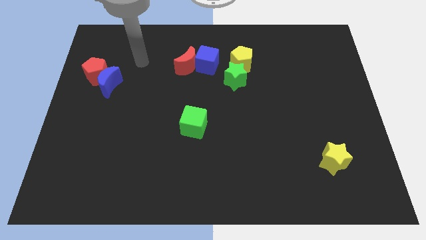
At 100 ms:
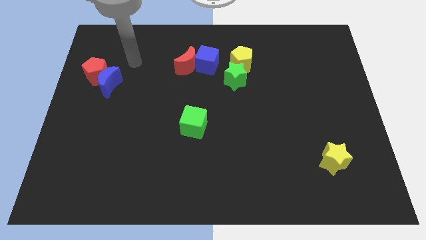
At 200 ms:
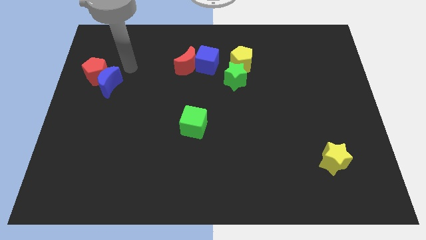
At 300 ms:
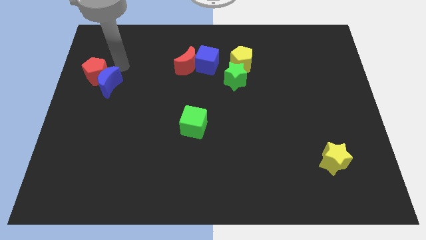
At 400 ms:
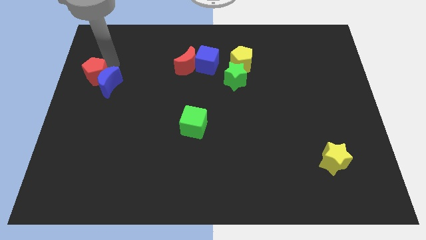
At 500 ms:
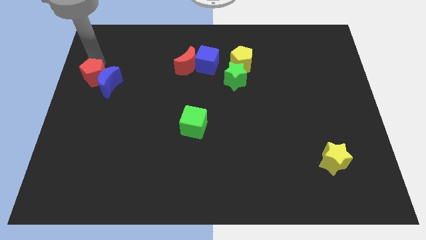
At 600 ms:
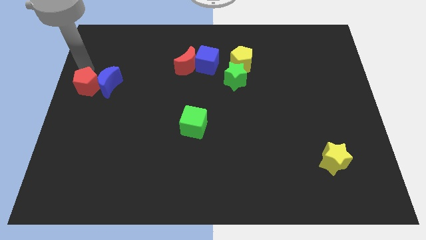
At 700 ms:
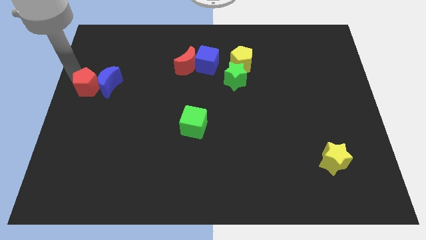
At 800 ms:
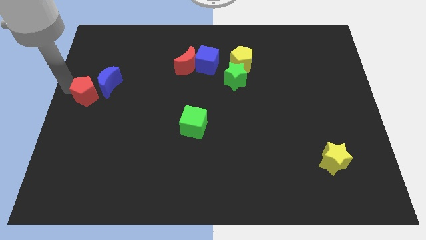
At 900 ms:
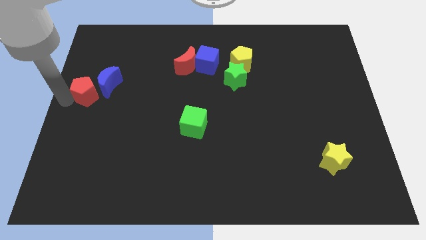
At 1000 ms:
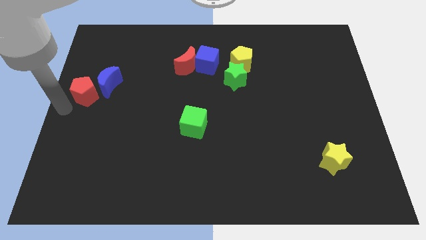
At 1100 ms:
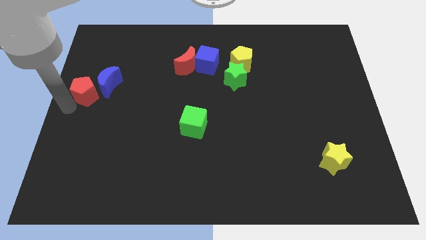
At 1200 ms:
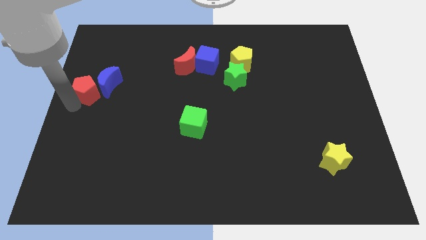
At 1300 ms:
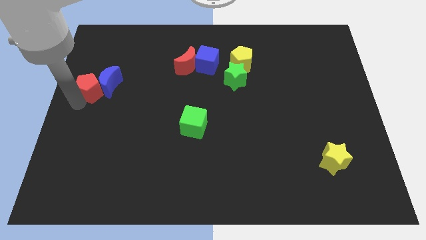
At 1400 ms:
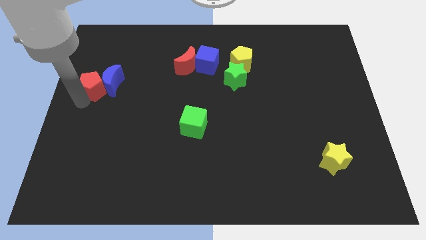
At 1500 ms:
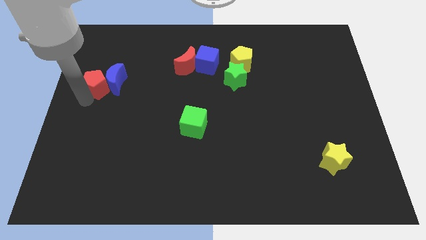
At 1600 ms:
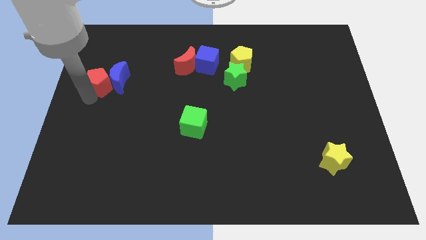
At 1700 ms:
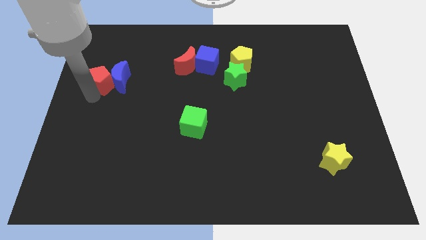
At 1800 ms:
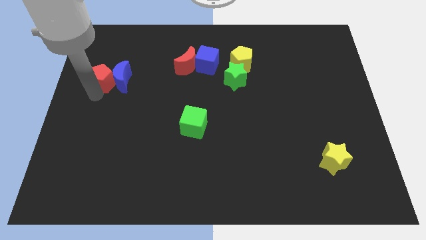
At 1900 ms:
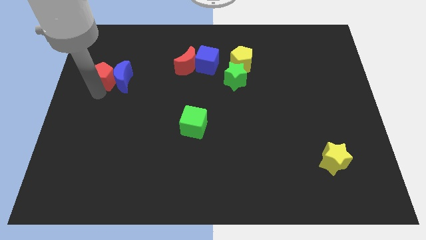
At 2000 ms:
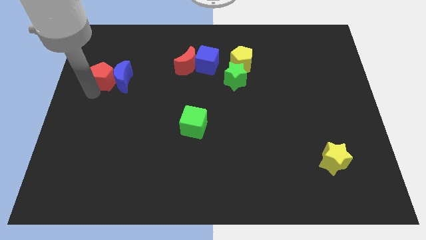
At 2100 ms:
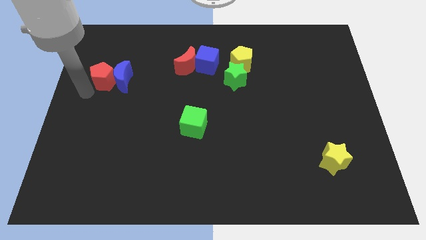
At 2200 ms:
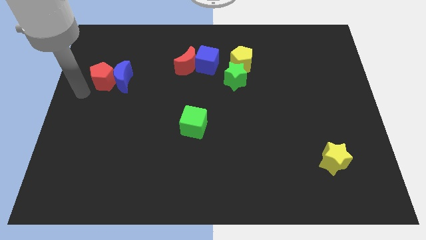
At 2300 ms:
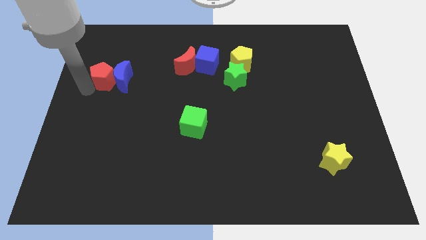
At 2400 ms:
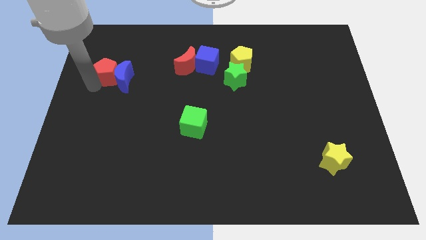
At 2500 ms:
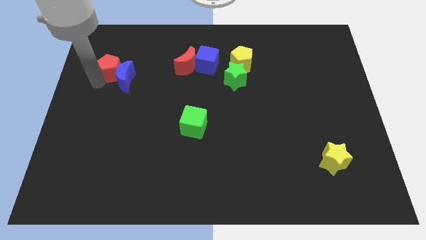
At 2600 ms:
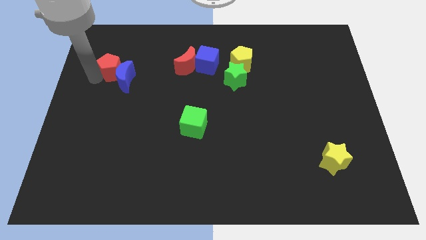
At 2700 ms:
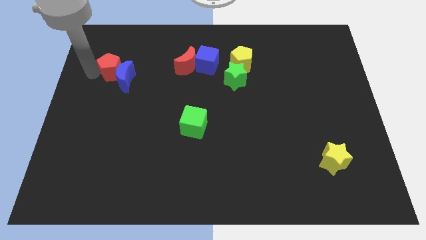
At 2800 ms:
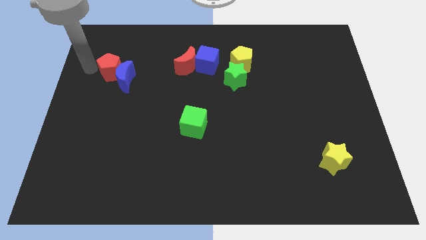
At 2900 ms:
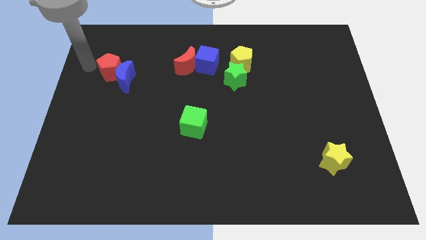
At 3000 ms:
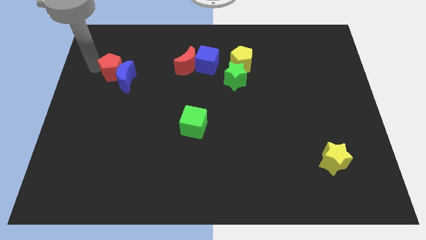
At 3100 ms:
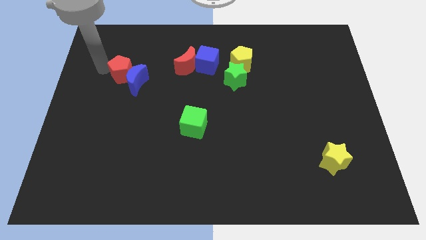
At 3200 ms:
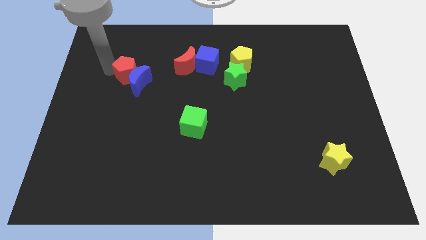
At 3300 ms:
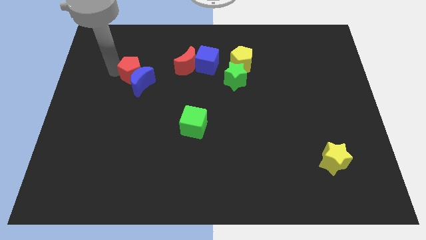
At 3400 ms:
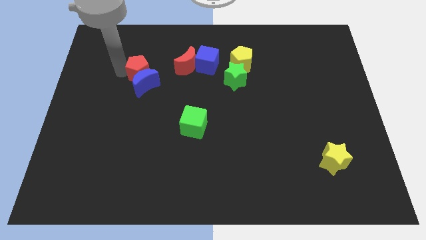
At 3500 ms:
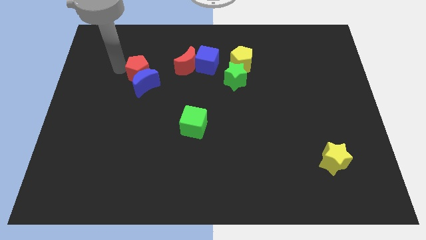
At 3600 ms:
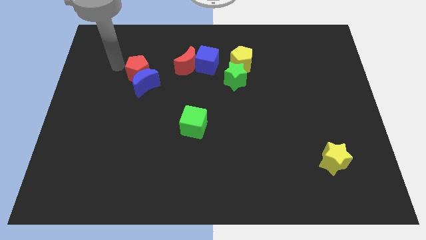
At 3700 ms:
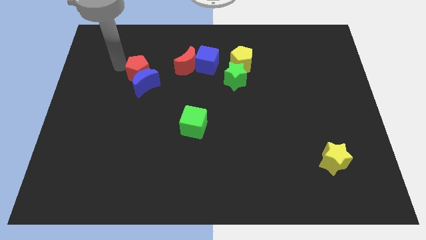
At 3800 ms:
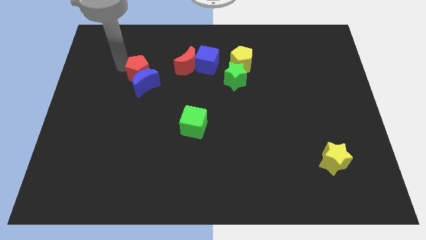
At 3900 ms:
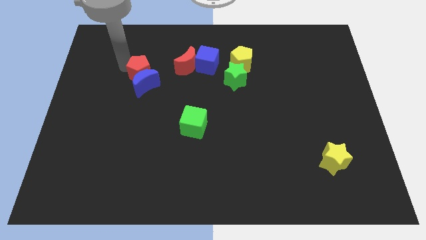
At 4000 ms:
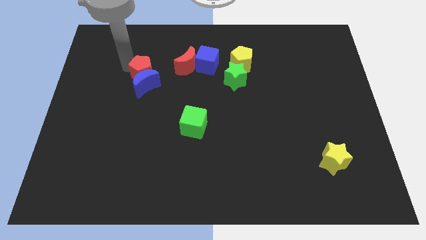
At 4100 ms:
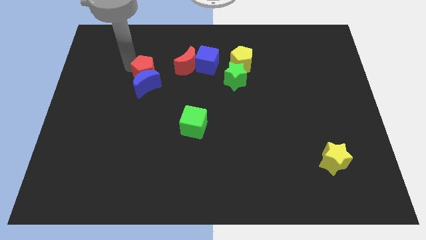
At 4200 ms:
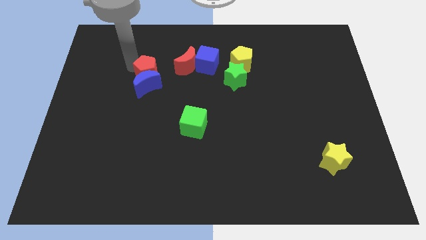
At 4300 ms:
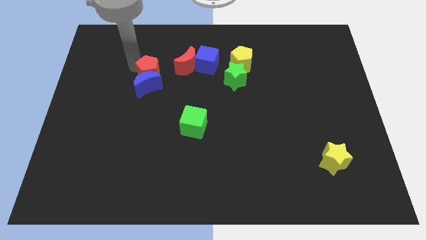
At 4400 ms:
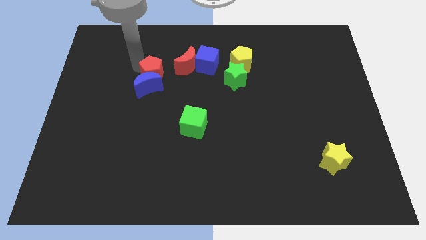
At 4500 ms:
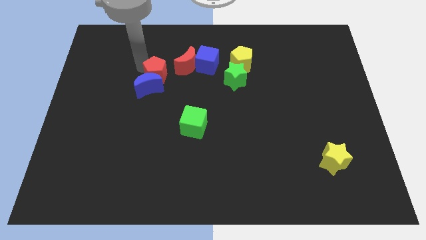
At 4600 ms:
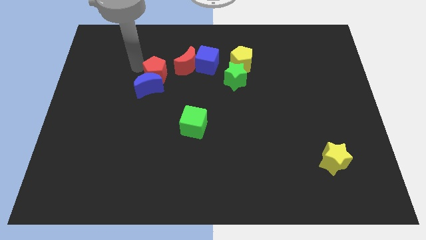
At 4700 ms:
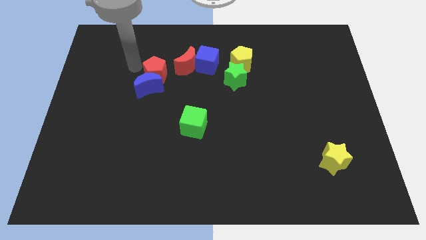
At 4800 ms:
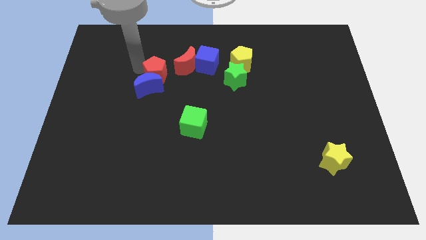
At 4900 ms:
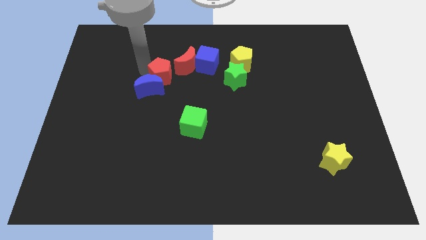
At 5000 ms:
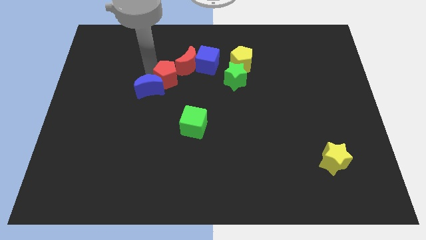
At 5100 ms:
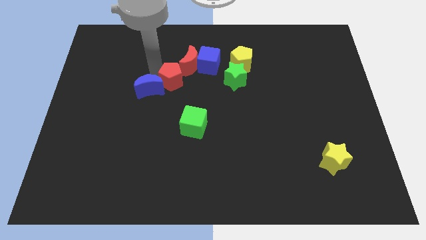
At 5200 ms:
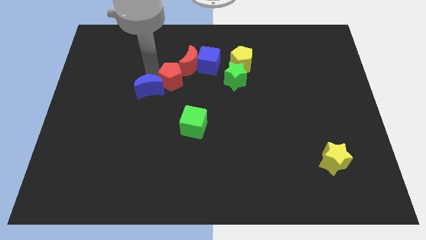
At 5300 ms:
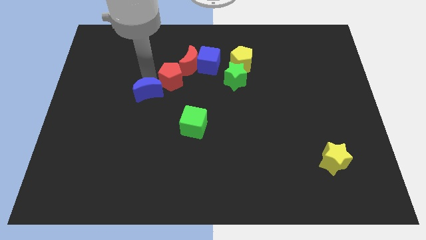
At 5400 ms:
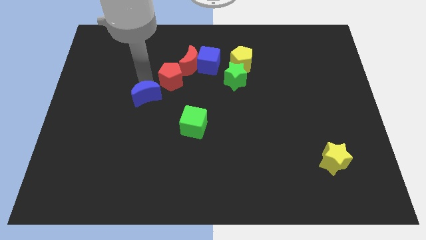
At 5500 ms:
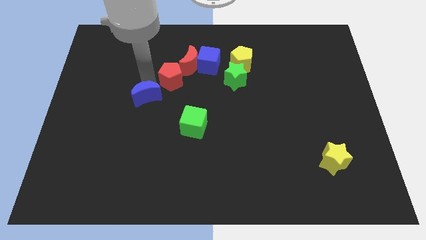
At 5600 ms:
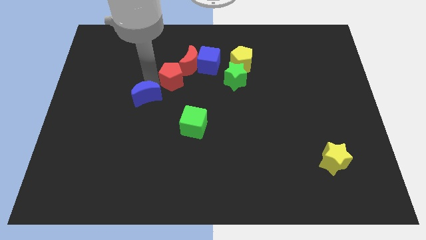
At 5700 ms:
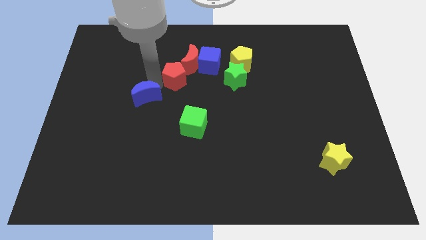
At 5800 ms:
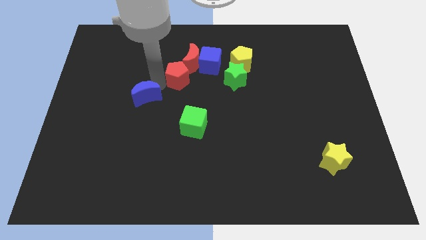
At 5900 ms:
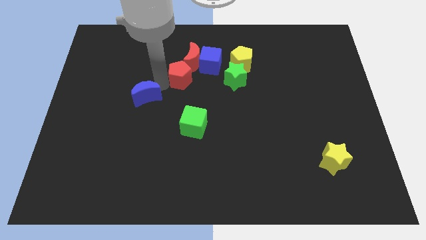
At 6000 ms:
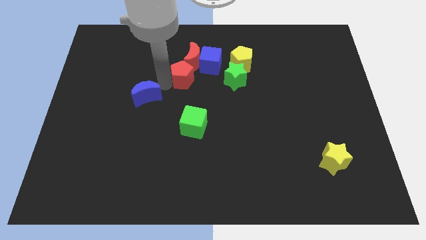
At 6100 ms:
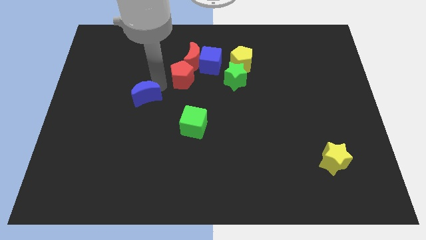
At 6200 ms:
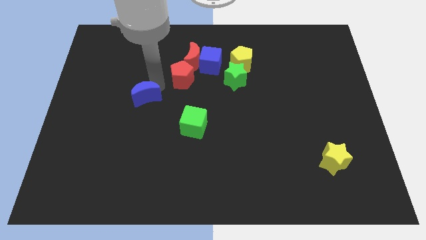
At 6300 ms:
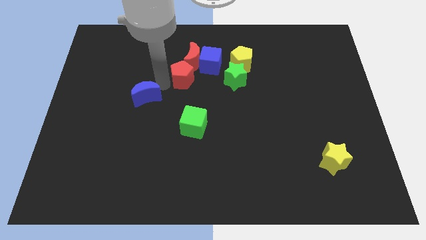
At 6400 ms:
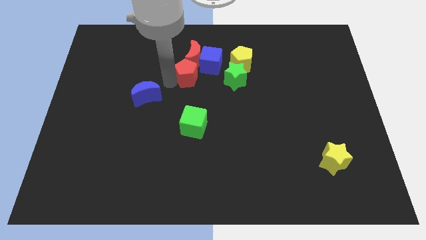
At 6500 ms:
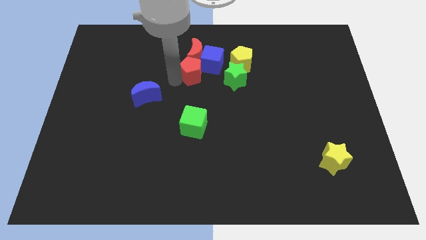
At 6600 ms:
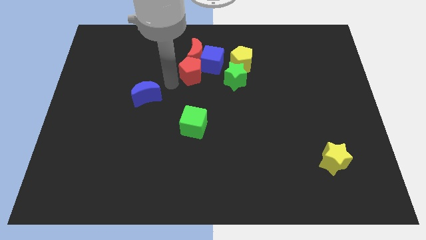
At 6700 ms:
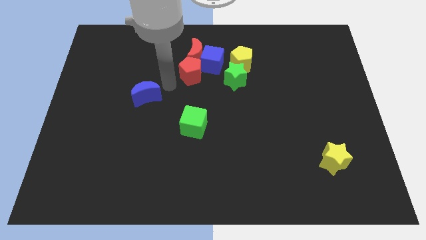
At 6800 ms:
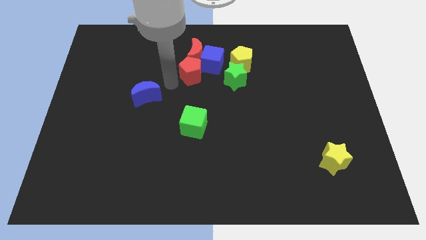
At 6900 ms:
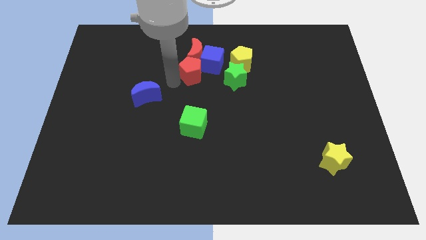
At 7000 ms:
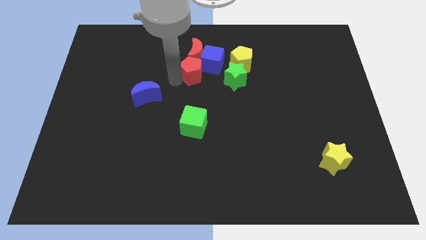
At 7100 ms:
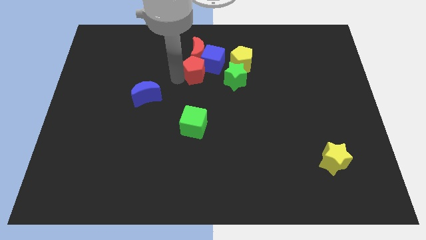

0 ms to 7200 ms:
push the red pentagon close to the blue cube

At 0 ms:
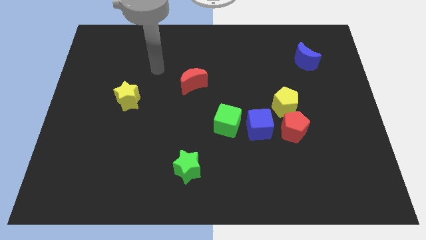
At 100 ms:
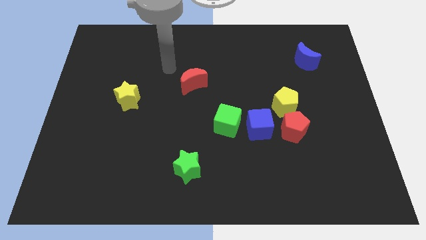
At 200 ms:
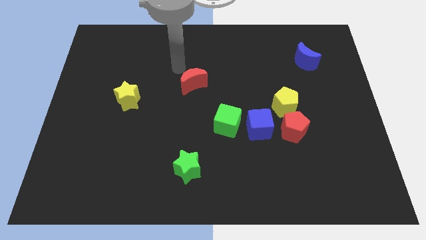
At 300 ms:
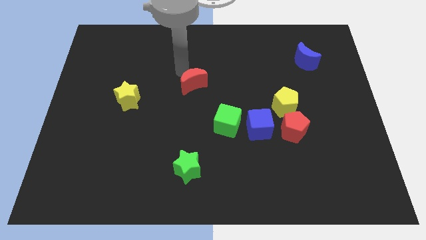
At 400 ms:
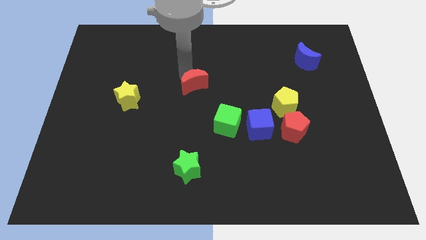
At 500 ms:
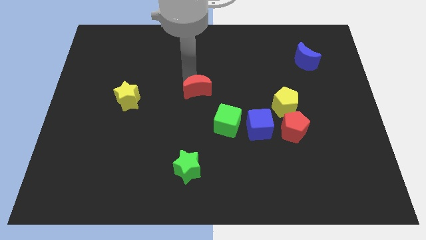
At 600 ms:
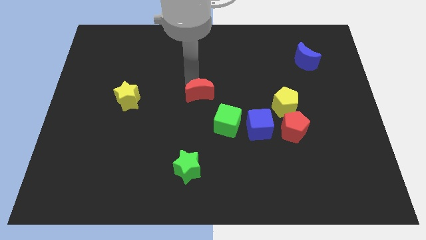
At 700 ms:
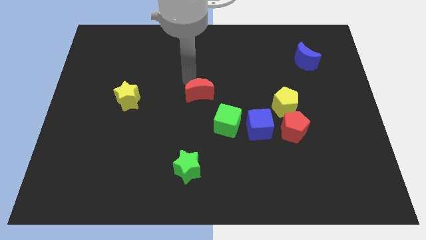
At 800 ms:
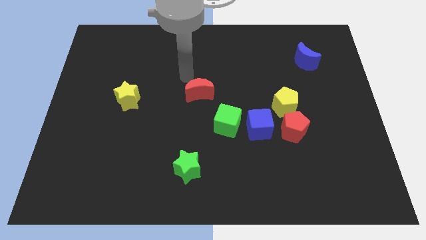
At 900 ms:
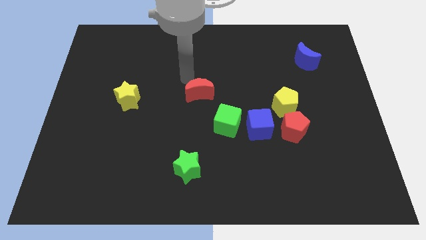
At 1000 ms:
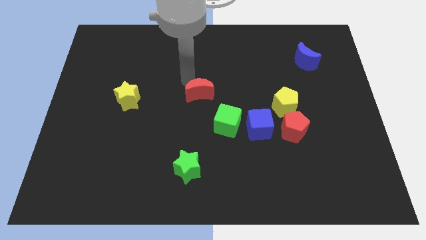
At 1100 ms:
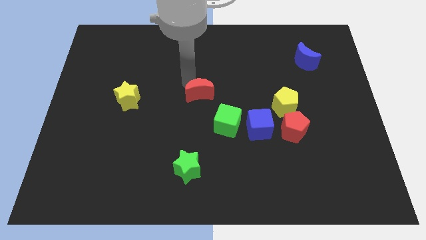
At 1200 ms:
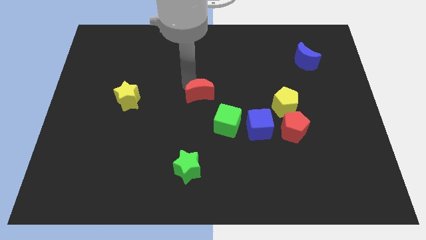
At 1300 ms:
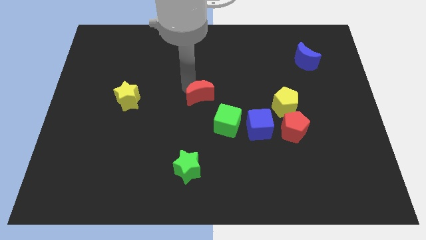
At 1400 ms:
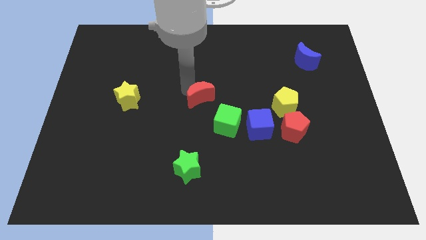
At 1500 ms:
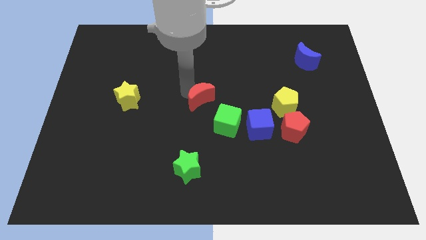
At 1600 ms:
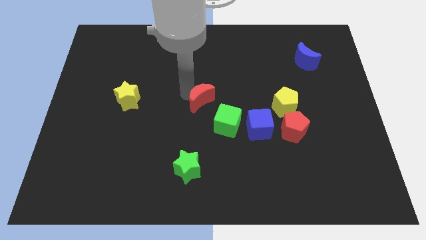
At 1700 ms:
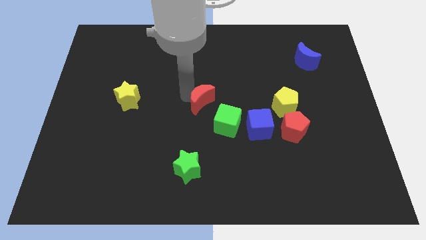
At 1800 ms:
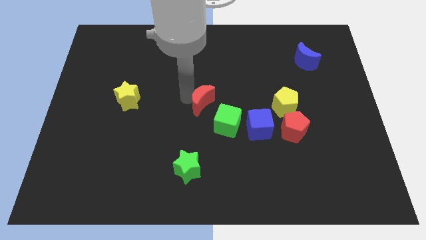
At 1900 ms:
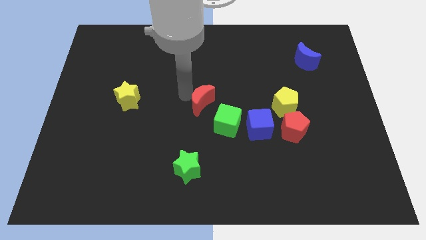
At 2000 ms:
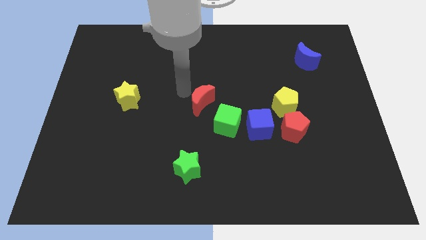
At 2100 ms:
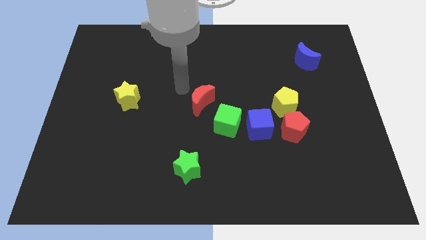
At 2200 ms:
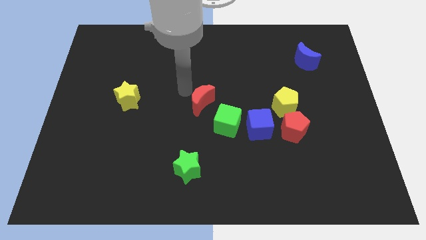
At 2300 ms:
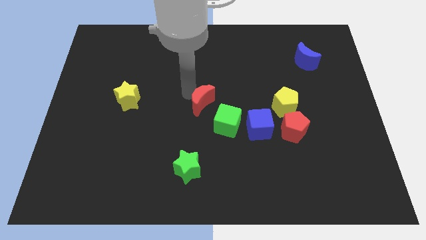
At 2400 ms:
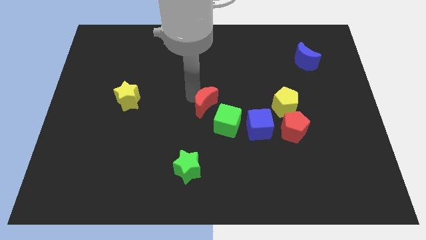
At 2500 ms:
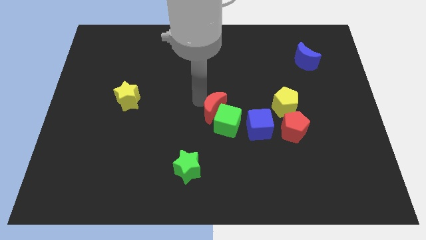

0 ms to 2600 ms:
slide the red moon next to the green cube
